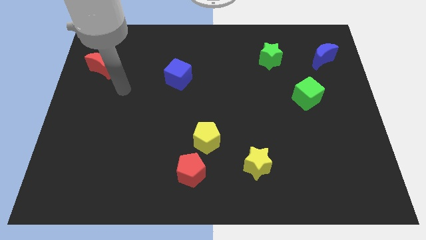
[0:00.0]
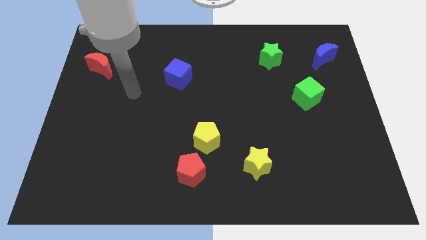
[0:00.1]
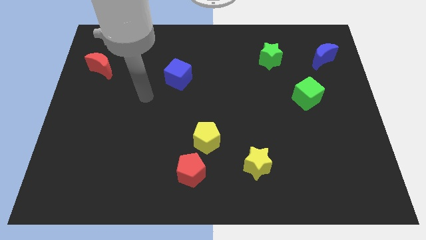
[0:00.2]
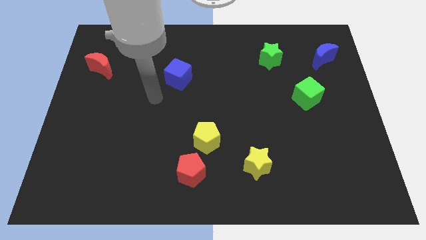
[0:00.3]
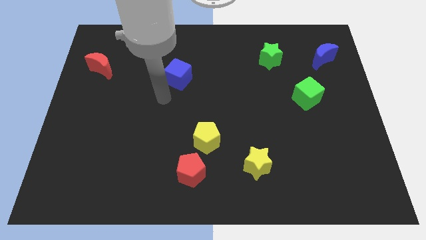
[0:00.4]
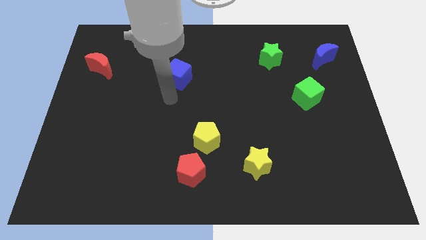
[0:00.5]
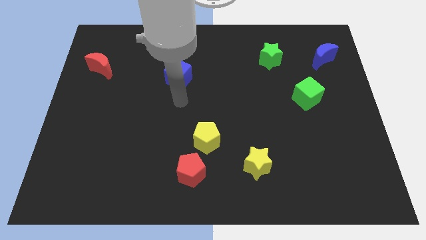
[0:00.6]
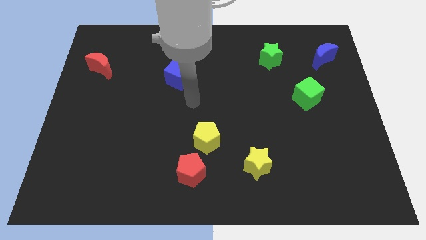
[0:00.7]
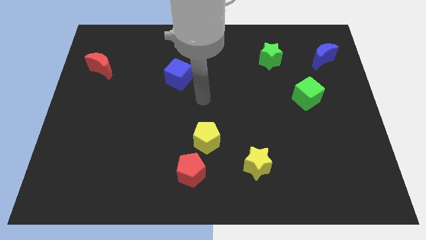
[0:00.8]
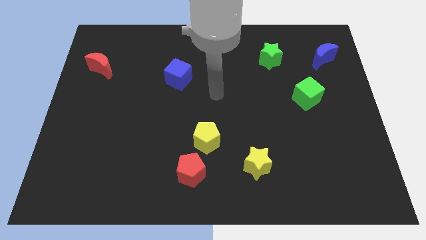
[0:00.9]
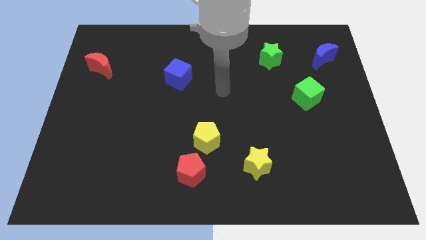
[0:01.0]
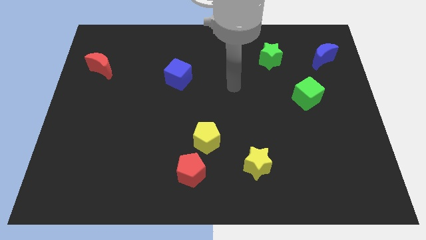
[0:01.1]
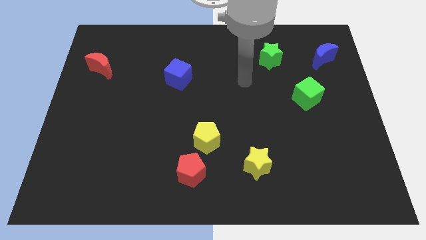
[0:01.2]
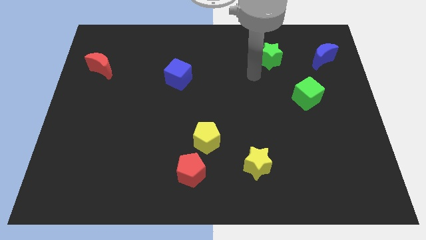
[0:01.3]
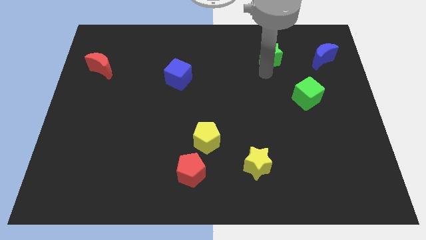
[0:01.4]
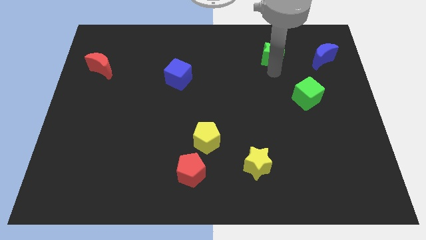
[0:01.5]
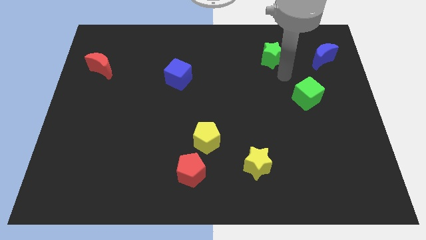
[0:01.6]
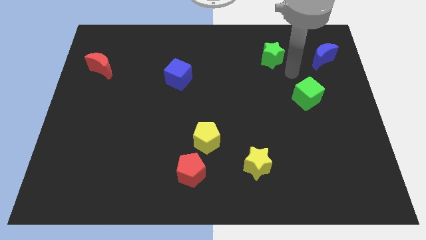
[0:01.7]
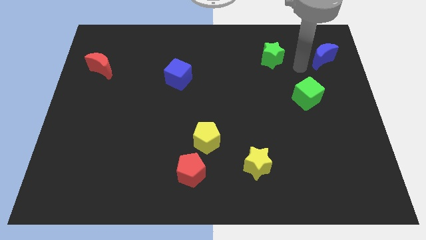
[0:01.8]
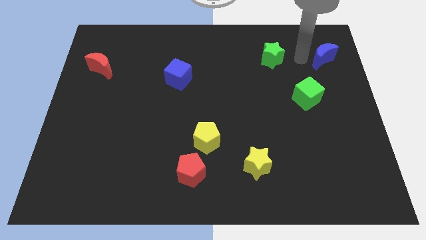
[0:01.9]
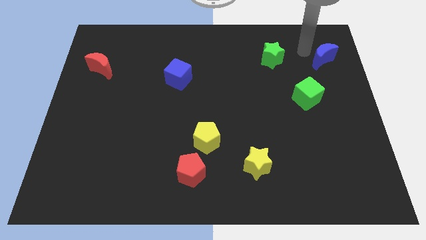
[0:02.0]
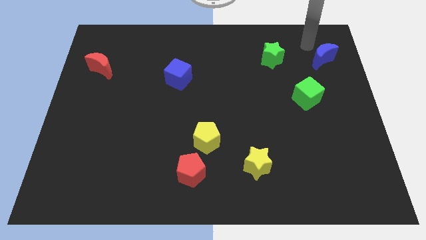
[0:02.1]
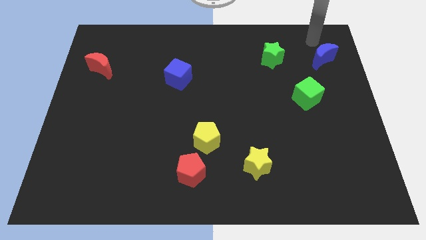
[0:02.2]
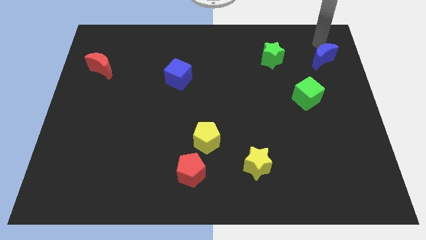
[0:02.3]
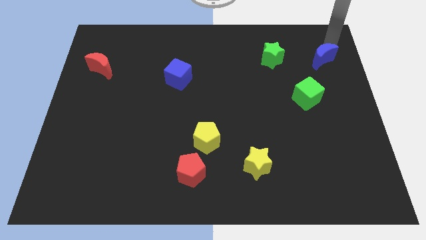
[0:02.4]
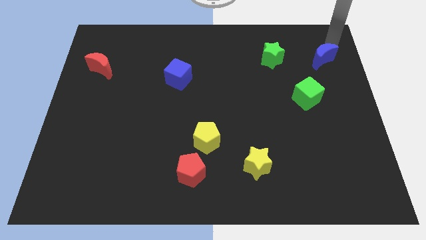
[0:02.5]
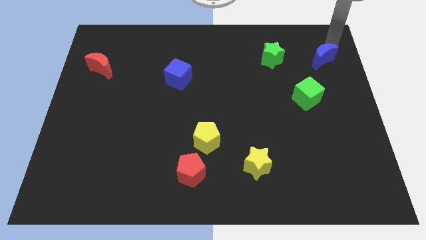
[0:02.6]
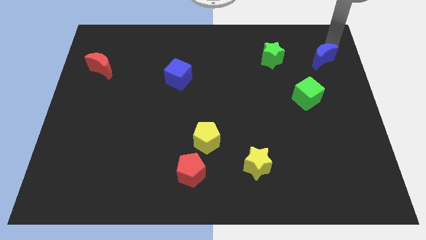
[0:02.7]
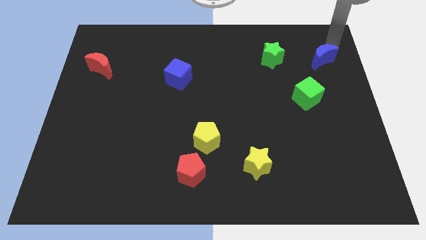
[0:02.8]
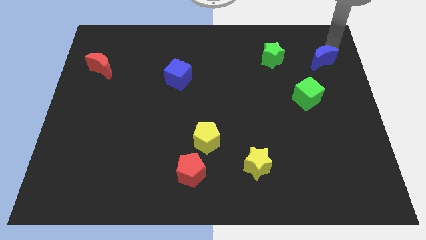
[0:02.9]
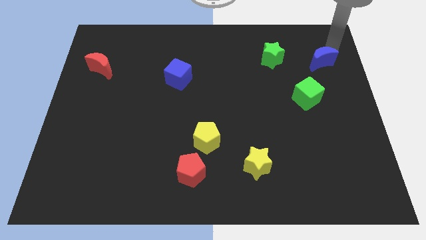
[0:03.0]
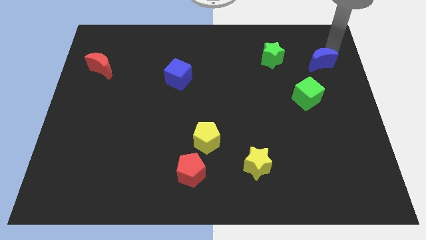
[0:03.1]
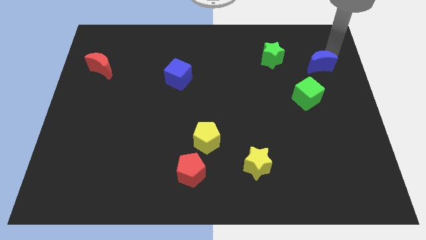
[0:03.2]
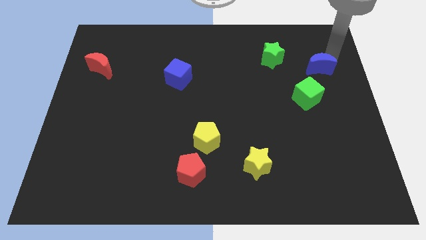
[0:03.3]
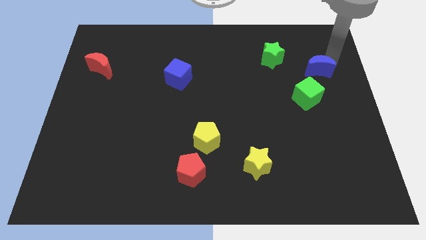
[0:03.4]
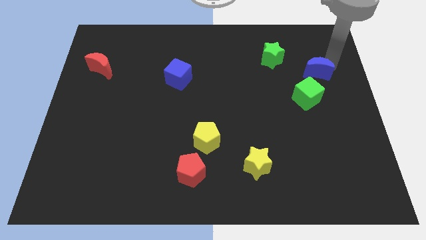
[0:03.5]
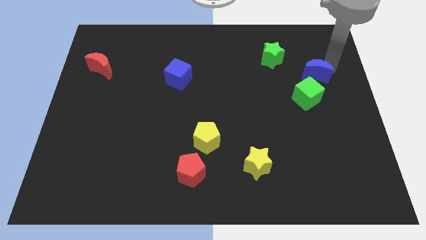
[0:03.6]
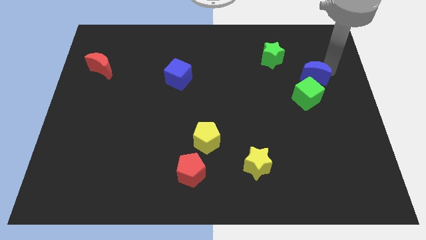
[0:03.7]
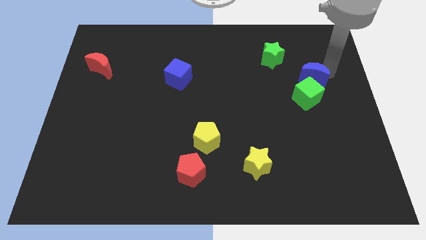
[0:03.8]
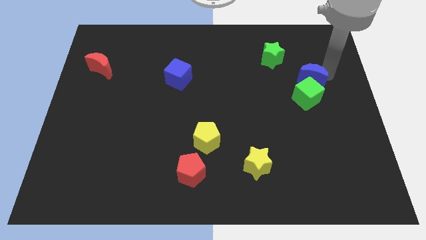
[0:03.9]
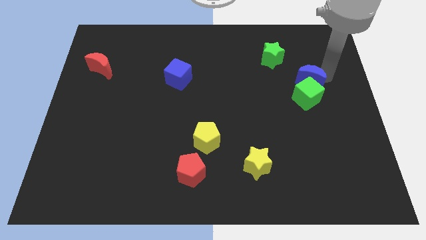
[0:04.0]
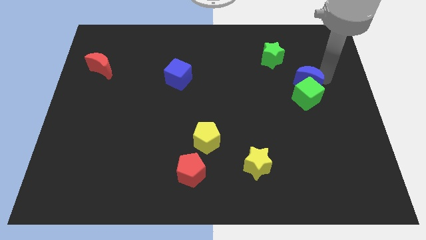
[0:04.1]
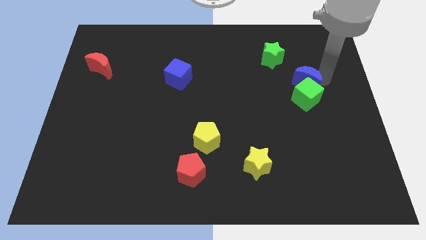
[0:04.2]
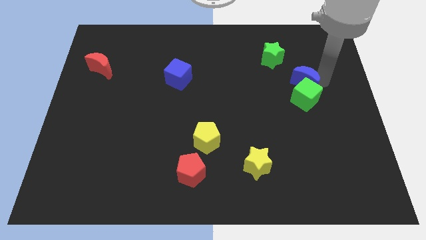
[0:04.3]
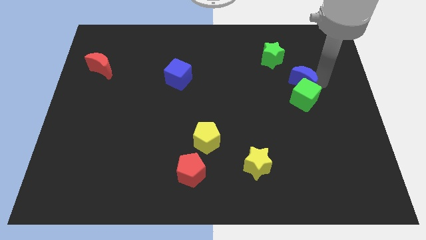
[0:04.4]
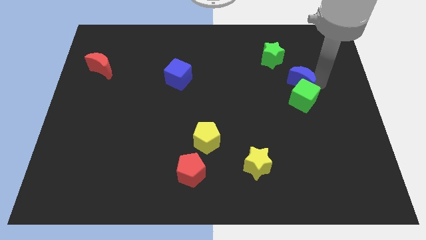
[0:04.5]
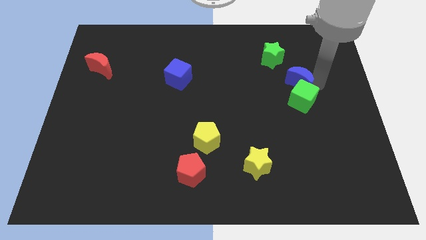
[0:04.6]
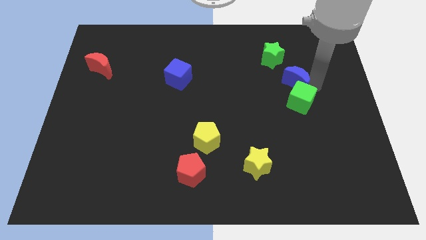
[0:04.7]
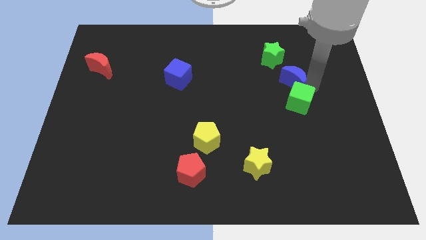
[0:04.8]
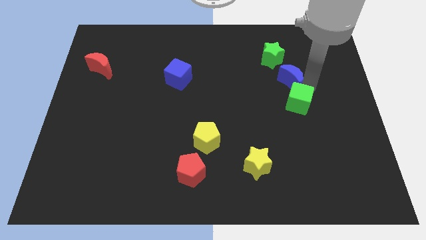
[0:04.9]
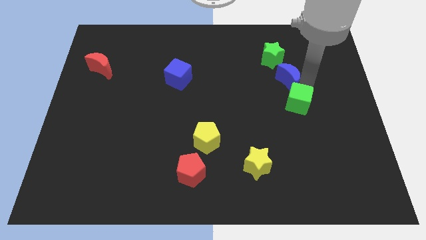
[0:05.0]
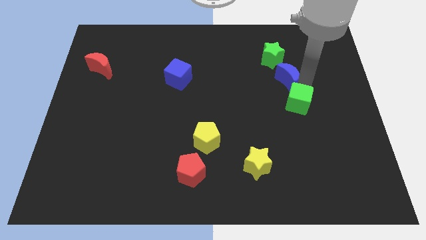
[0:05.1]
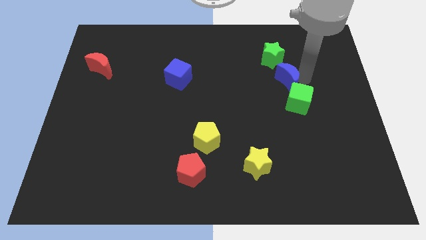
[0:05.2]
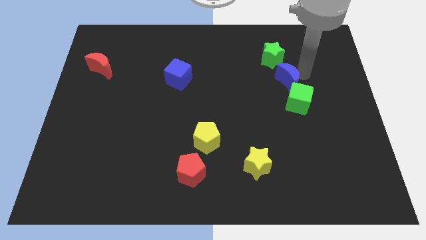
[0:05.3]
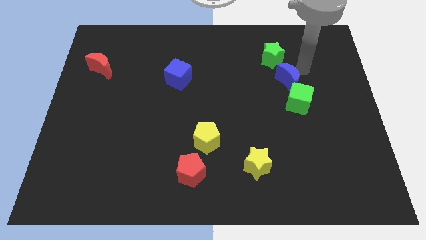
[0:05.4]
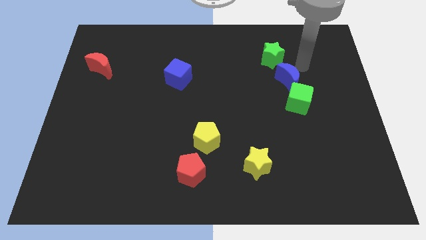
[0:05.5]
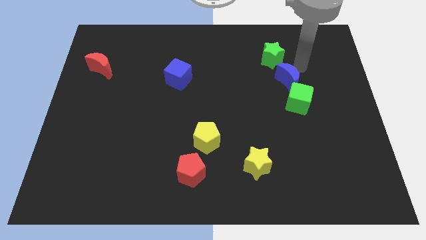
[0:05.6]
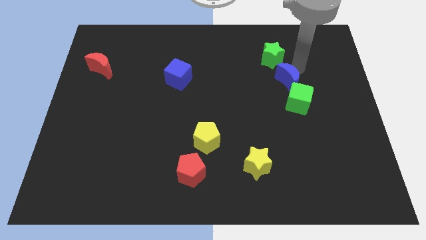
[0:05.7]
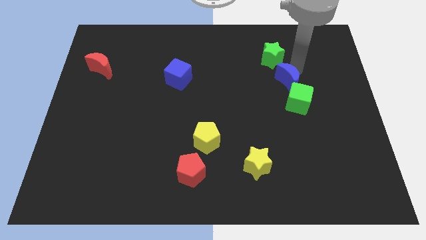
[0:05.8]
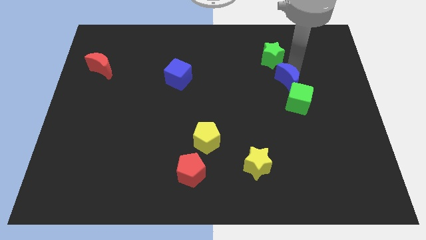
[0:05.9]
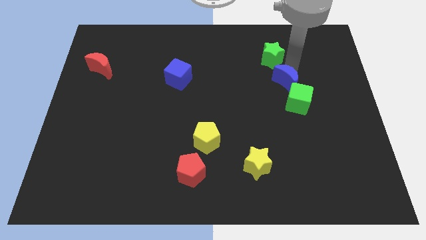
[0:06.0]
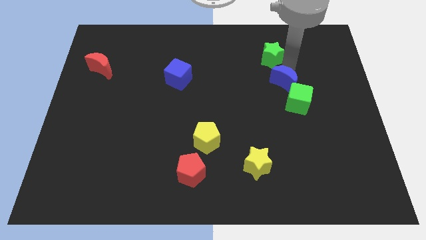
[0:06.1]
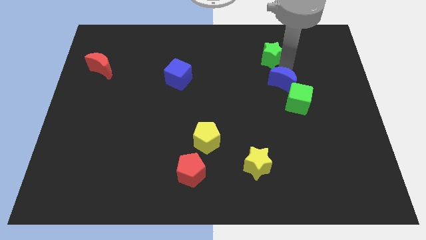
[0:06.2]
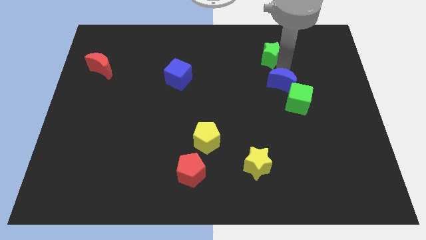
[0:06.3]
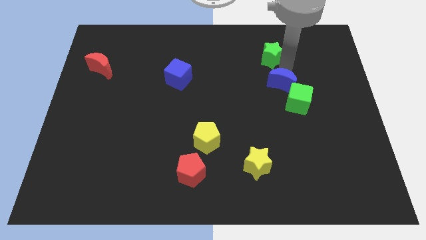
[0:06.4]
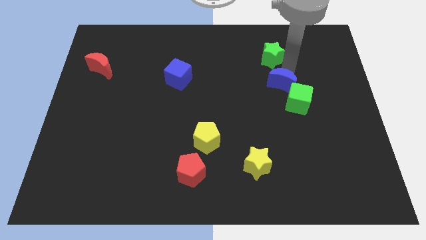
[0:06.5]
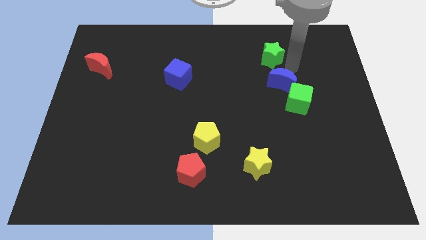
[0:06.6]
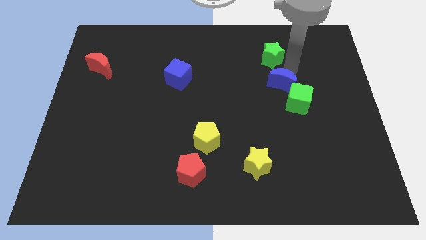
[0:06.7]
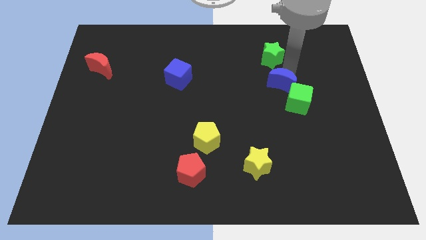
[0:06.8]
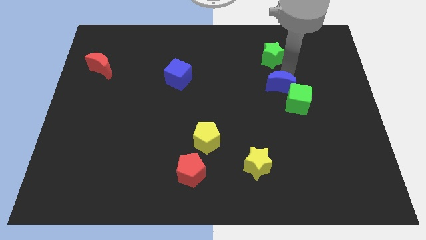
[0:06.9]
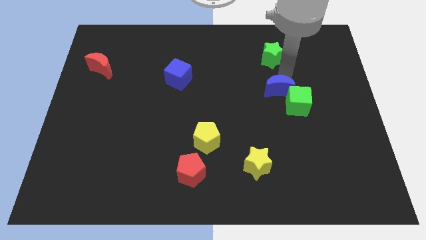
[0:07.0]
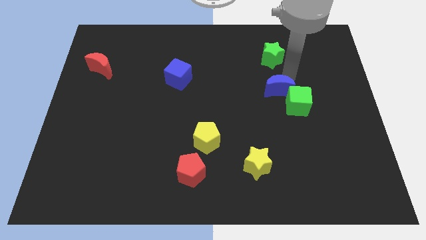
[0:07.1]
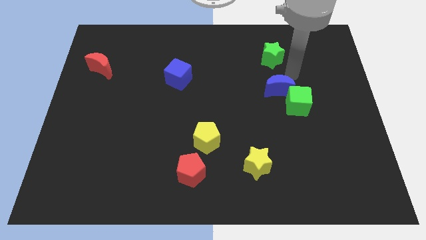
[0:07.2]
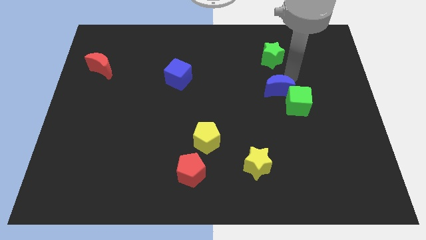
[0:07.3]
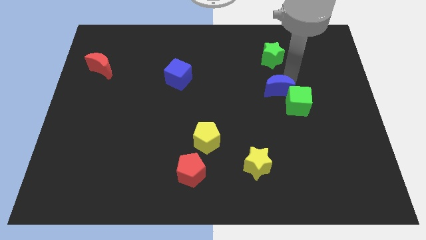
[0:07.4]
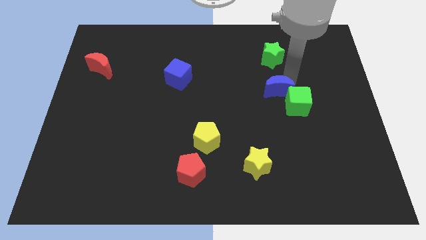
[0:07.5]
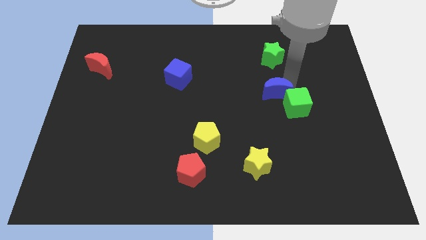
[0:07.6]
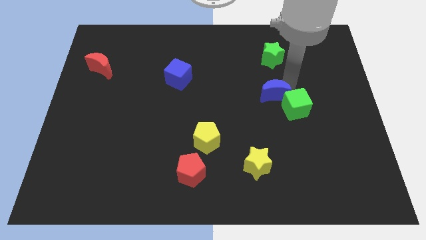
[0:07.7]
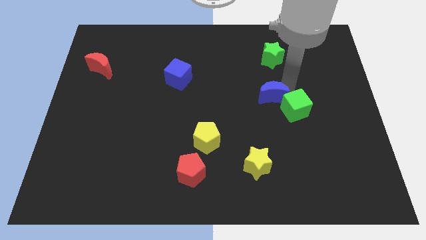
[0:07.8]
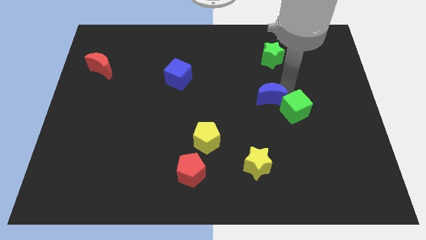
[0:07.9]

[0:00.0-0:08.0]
push the blue moon downwards and left diagonally
